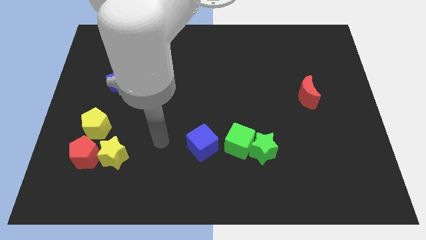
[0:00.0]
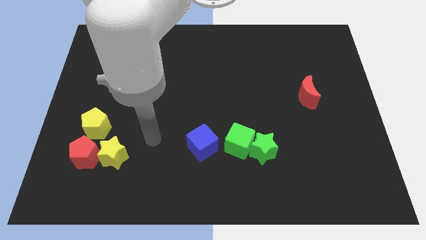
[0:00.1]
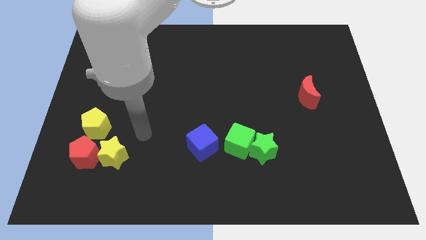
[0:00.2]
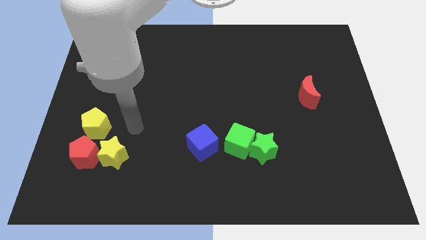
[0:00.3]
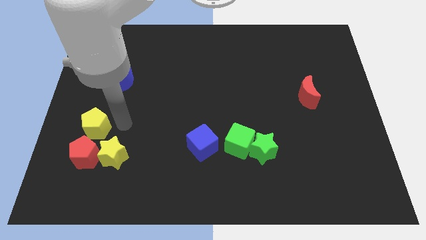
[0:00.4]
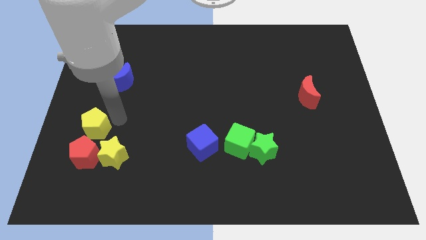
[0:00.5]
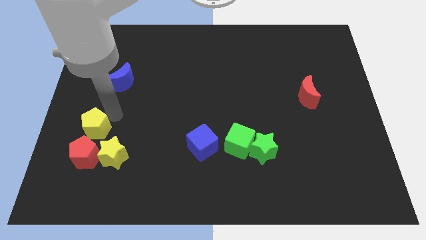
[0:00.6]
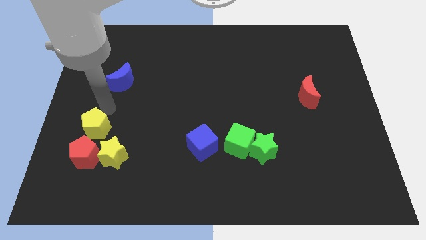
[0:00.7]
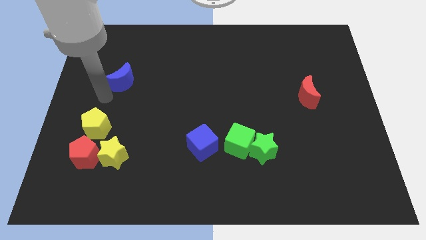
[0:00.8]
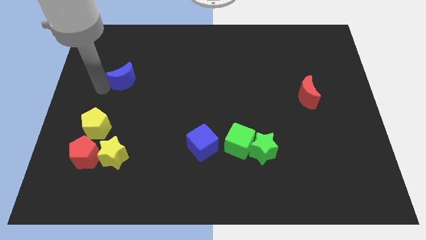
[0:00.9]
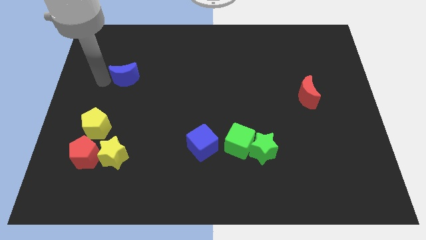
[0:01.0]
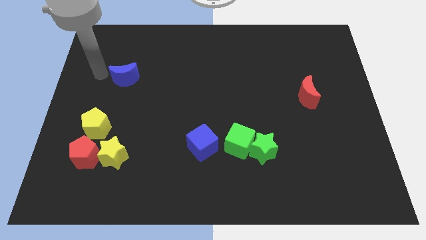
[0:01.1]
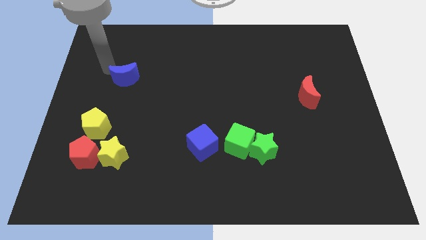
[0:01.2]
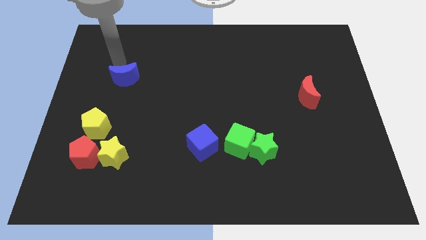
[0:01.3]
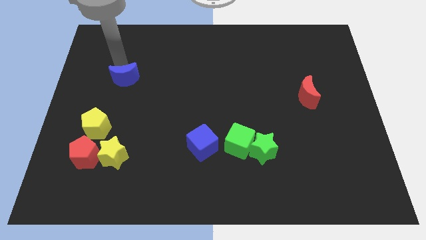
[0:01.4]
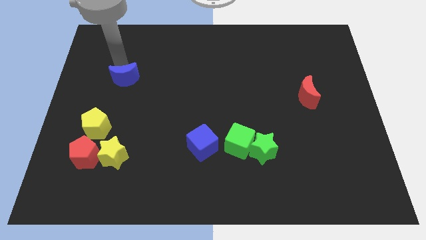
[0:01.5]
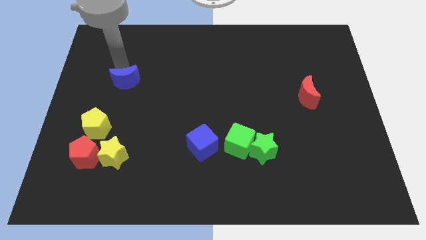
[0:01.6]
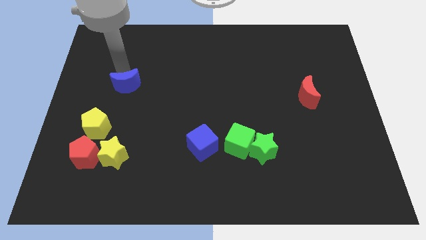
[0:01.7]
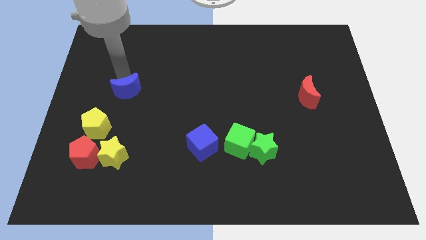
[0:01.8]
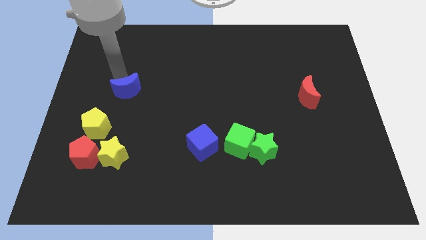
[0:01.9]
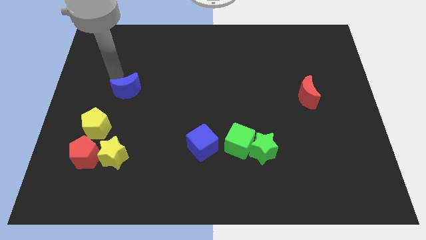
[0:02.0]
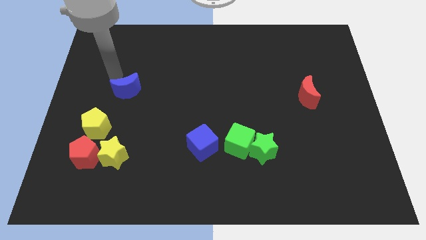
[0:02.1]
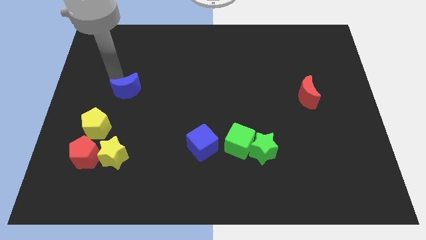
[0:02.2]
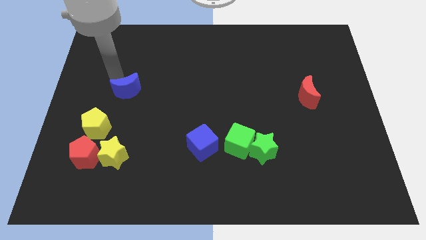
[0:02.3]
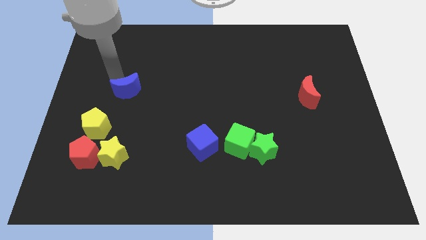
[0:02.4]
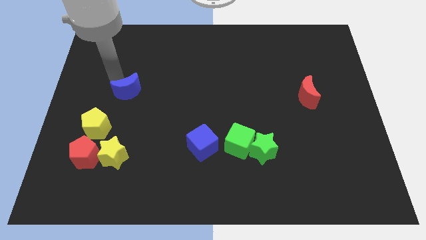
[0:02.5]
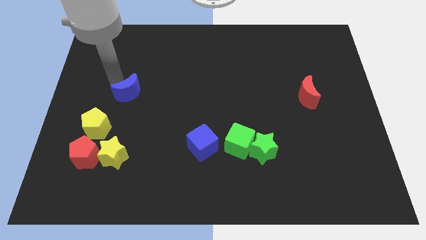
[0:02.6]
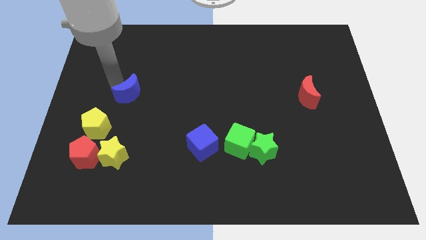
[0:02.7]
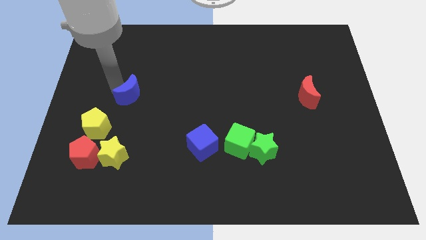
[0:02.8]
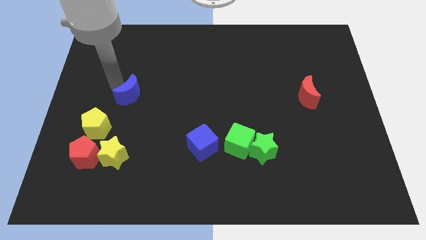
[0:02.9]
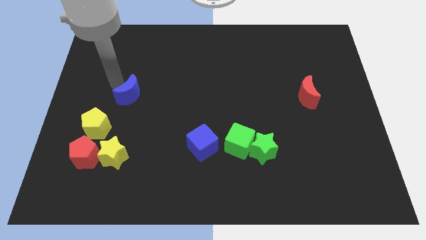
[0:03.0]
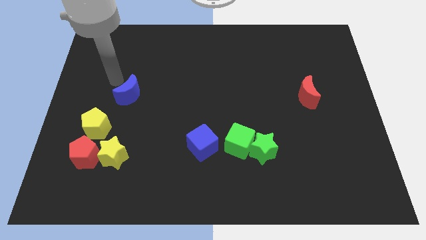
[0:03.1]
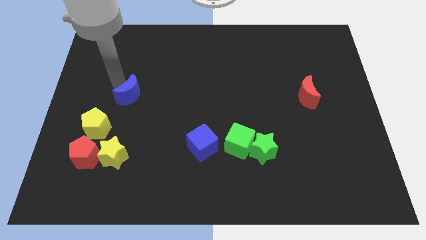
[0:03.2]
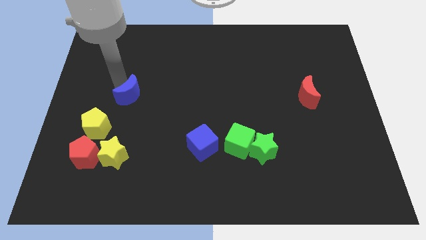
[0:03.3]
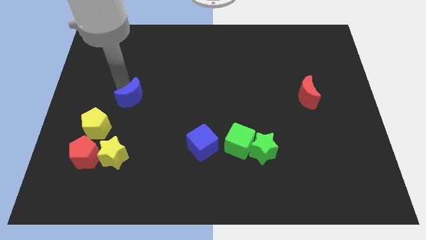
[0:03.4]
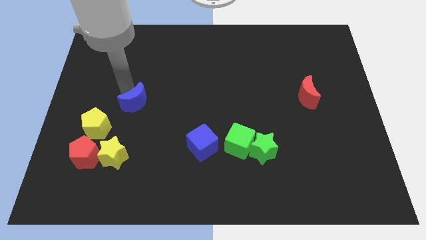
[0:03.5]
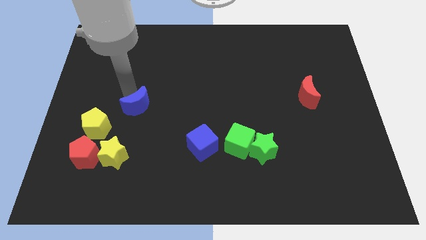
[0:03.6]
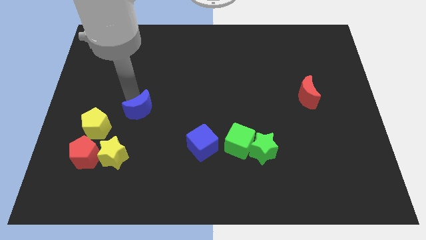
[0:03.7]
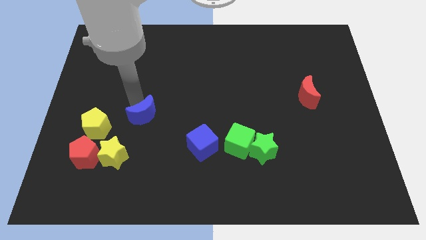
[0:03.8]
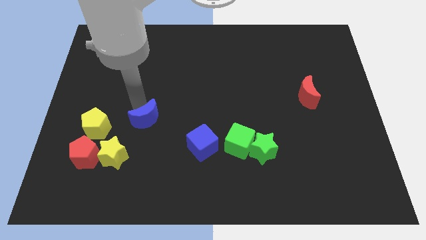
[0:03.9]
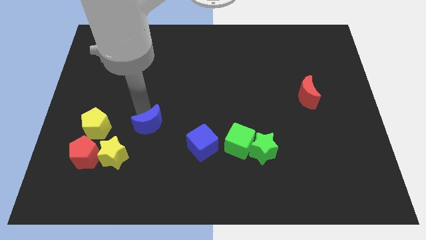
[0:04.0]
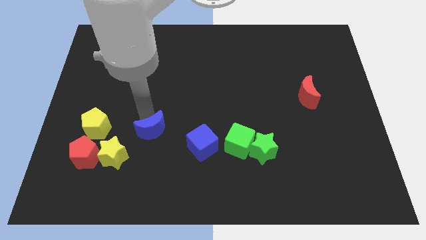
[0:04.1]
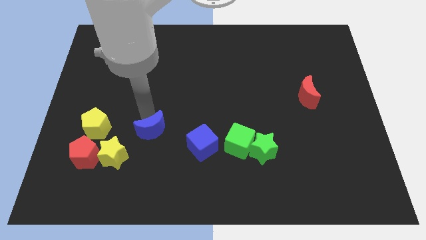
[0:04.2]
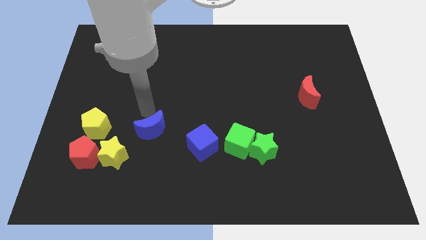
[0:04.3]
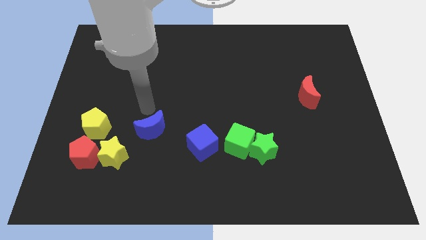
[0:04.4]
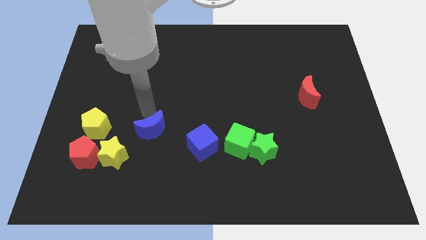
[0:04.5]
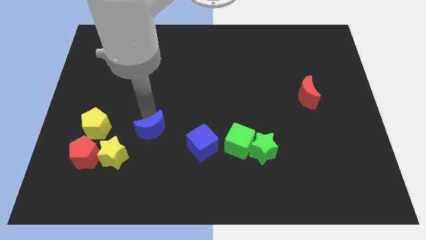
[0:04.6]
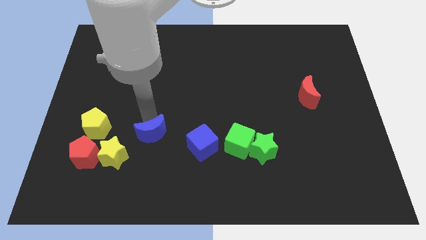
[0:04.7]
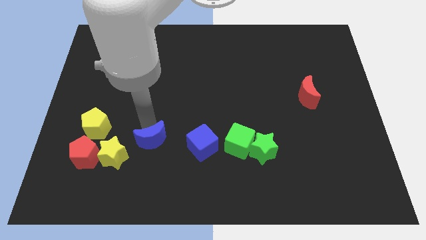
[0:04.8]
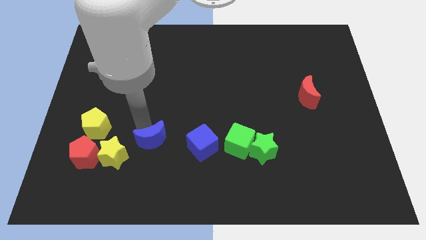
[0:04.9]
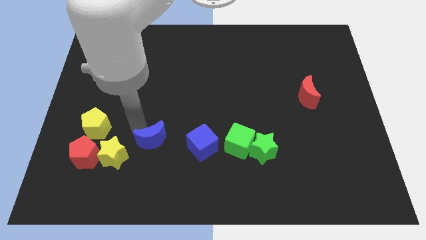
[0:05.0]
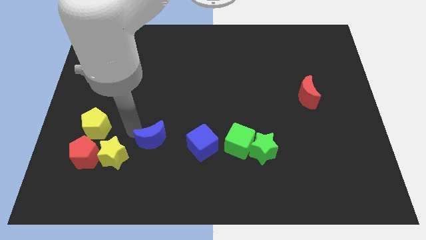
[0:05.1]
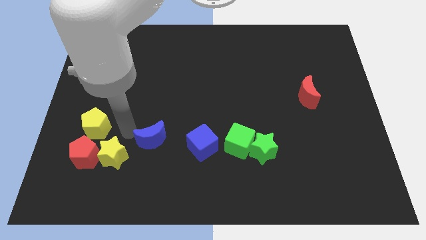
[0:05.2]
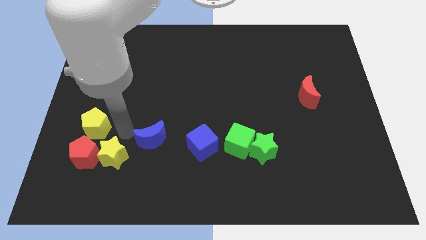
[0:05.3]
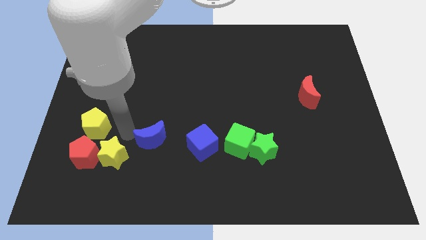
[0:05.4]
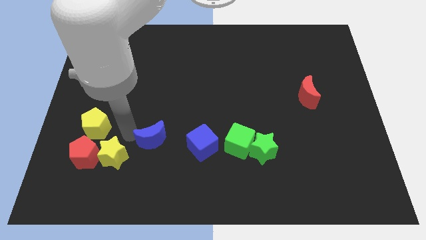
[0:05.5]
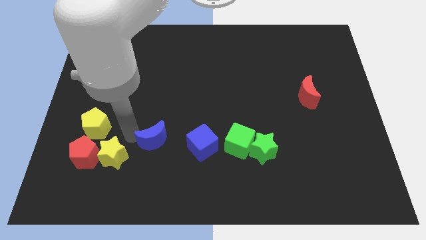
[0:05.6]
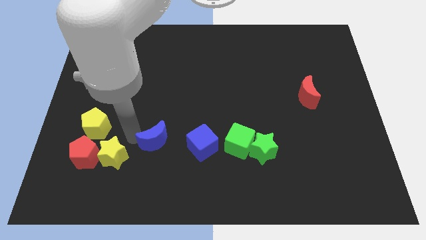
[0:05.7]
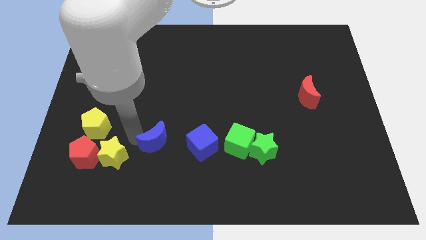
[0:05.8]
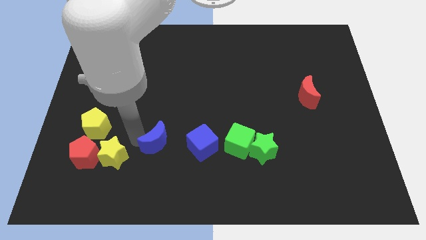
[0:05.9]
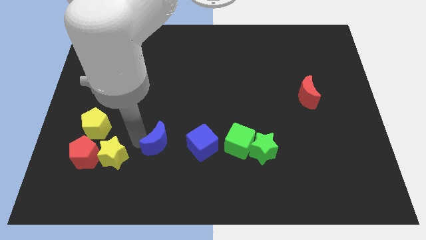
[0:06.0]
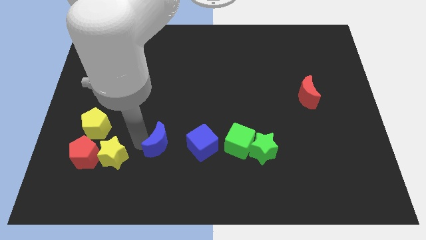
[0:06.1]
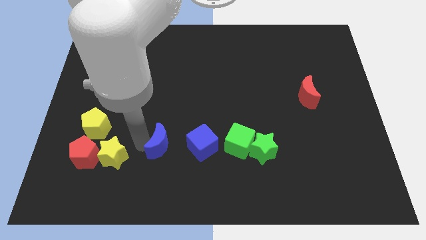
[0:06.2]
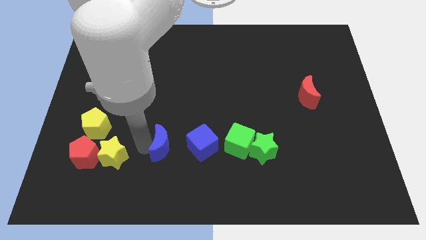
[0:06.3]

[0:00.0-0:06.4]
push the blue moon diagonally down and to the right

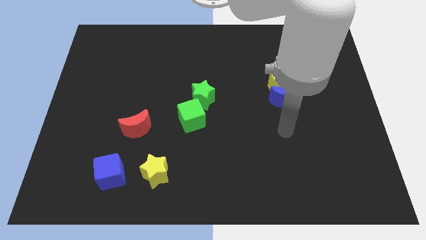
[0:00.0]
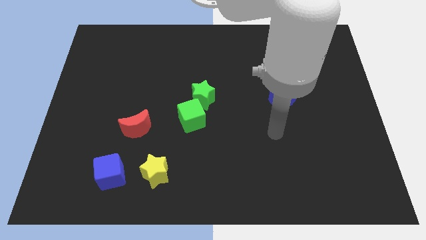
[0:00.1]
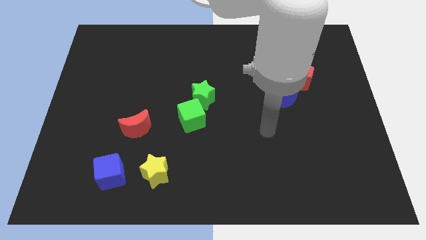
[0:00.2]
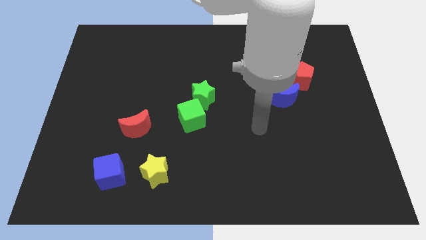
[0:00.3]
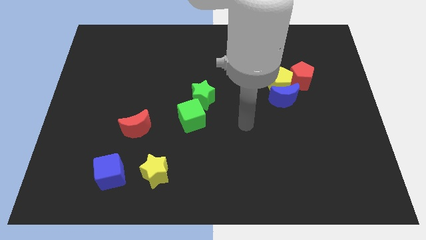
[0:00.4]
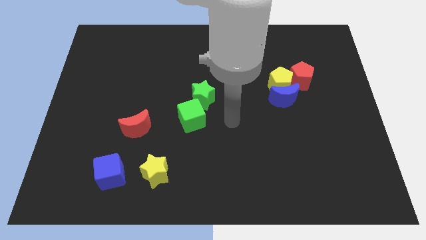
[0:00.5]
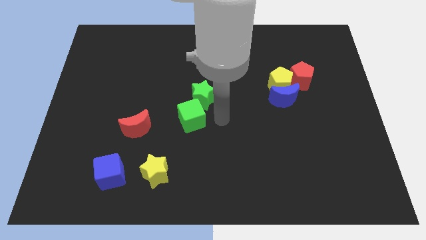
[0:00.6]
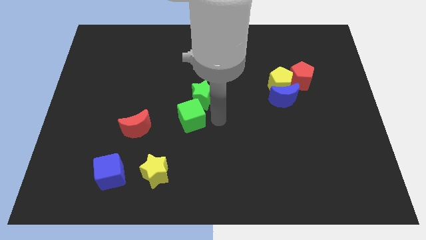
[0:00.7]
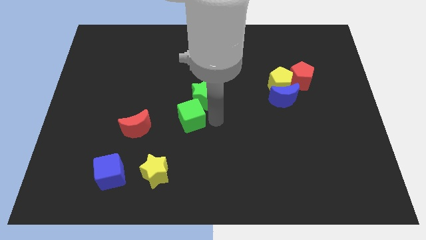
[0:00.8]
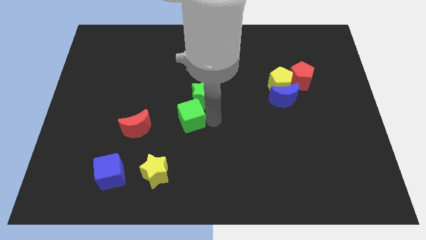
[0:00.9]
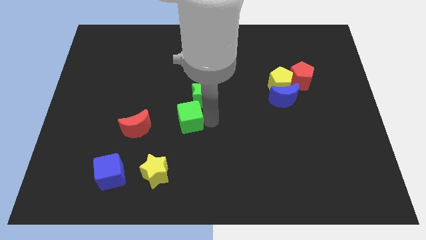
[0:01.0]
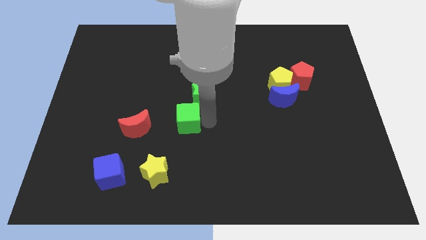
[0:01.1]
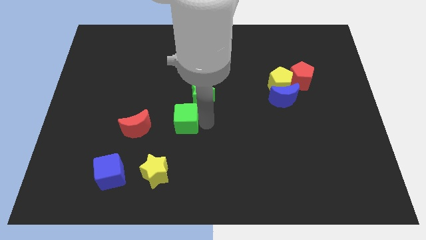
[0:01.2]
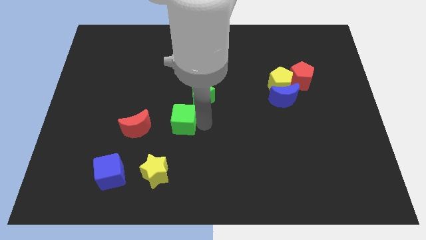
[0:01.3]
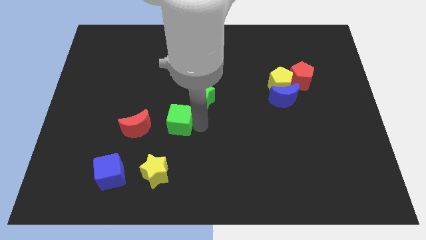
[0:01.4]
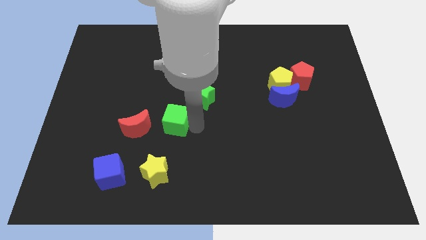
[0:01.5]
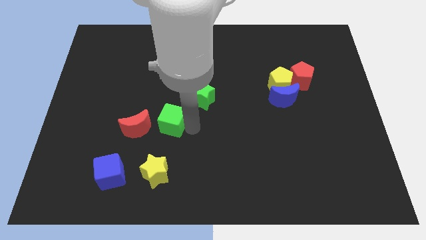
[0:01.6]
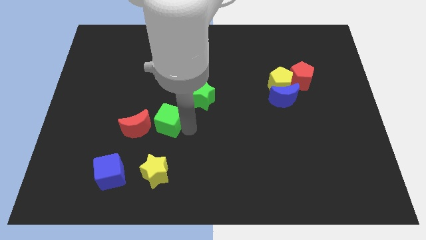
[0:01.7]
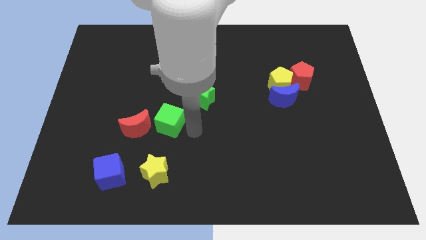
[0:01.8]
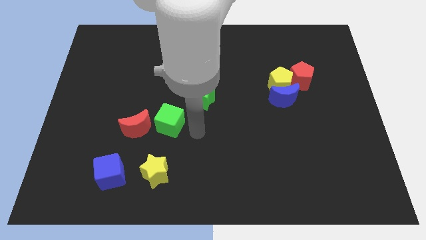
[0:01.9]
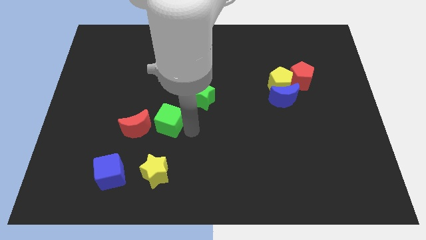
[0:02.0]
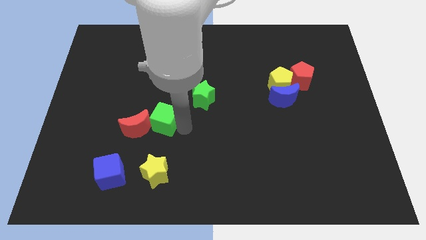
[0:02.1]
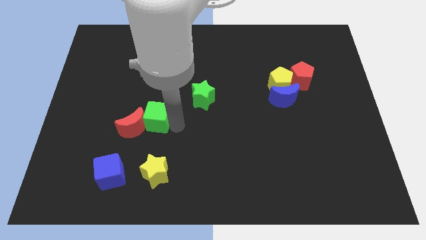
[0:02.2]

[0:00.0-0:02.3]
slightly move the green cube left
